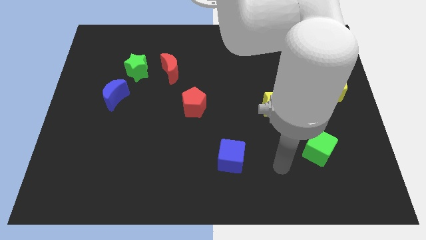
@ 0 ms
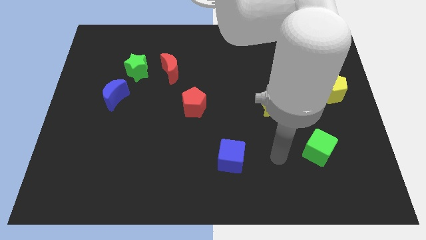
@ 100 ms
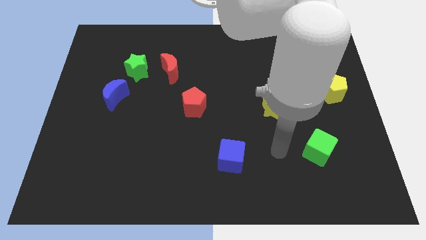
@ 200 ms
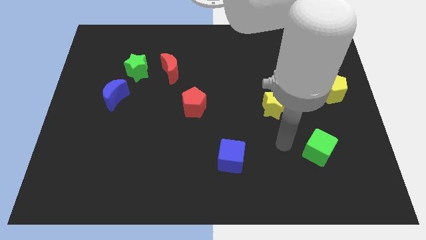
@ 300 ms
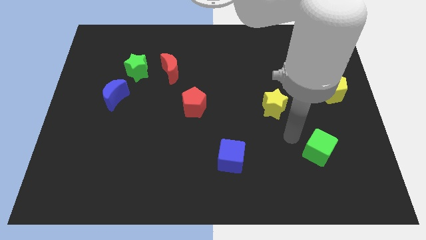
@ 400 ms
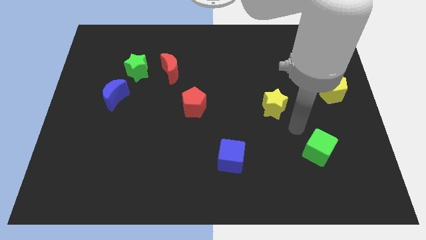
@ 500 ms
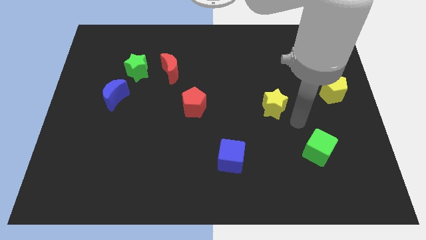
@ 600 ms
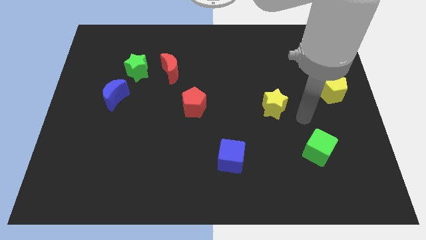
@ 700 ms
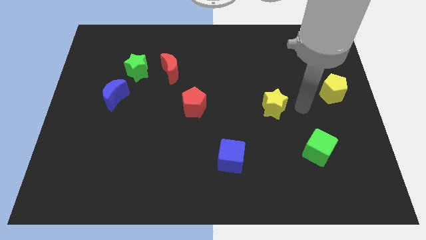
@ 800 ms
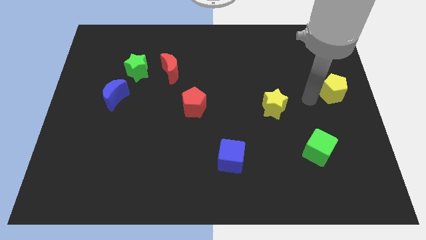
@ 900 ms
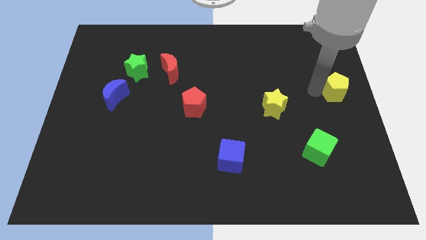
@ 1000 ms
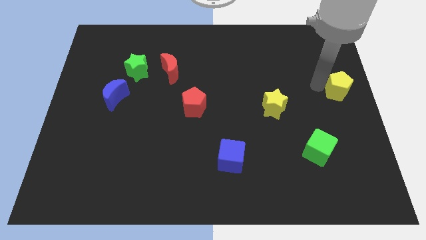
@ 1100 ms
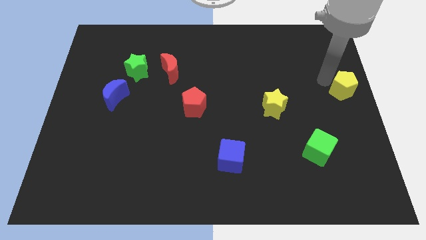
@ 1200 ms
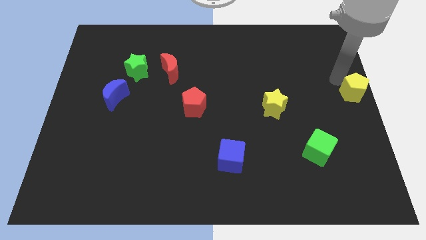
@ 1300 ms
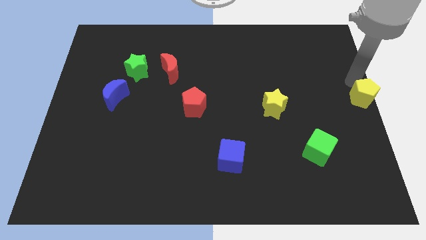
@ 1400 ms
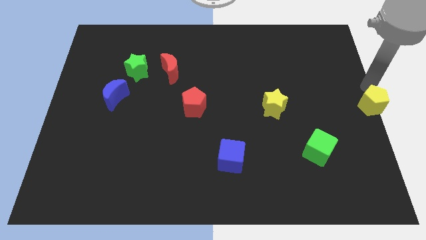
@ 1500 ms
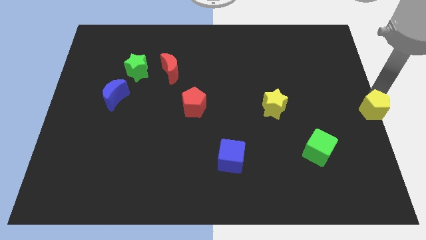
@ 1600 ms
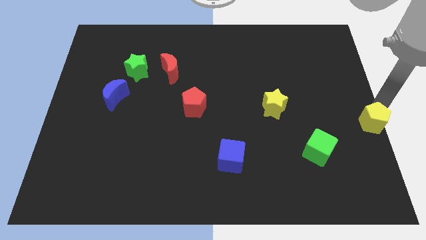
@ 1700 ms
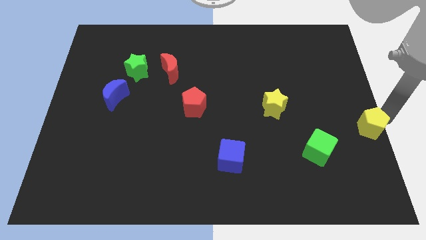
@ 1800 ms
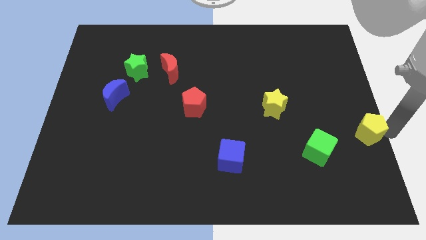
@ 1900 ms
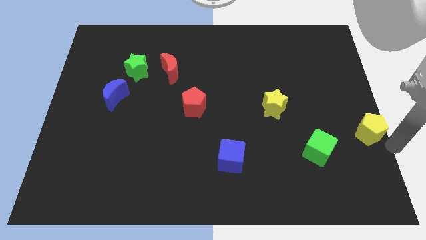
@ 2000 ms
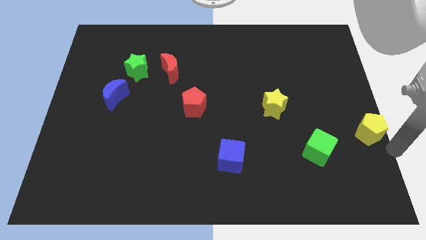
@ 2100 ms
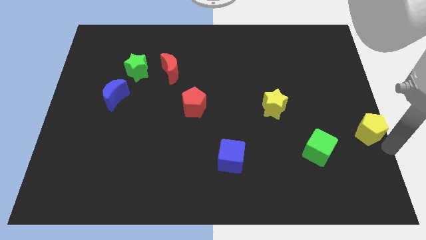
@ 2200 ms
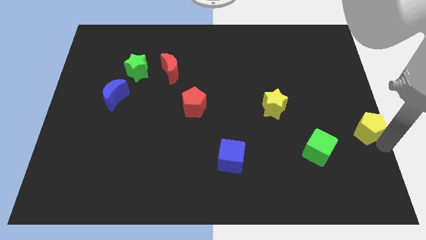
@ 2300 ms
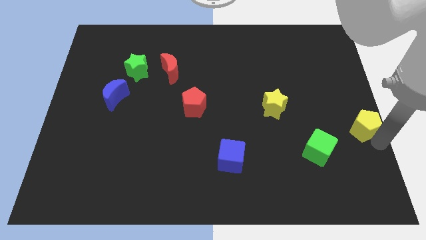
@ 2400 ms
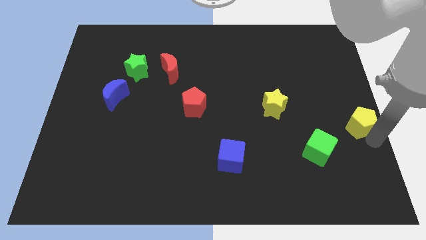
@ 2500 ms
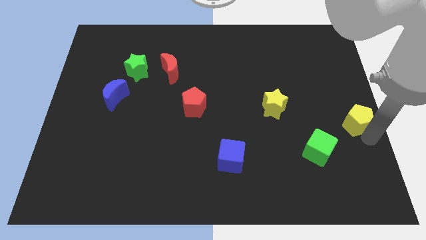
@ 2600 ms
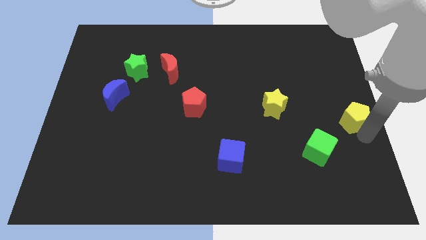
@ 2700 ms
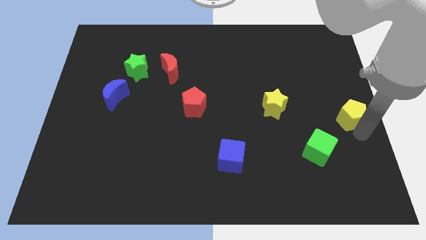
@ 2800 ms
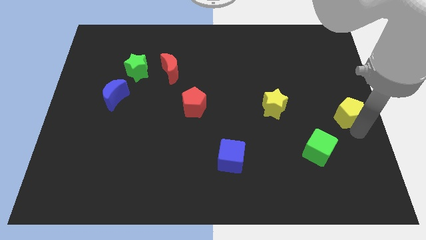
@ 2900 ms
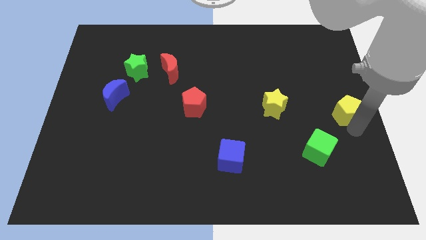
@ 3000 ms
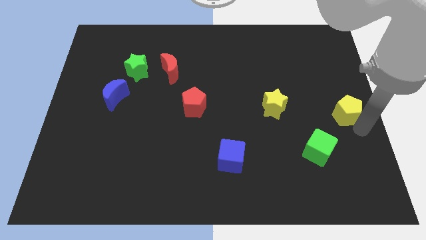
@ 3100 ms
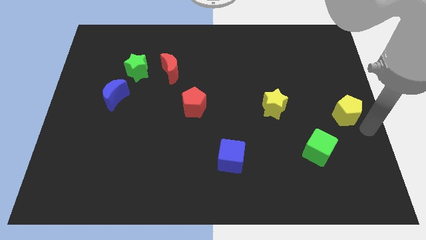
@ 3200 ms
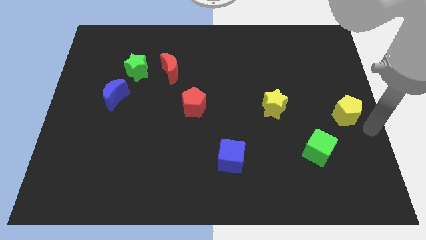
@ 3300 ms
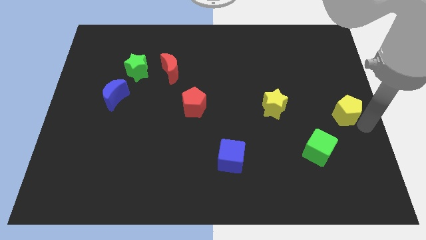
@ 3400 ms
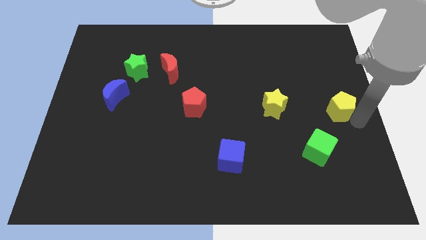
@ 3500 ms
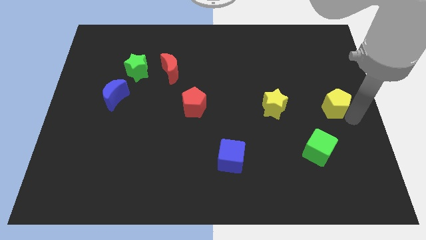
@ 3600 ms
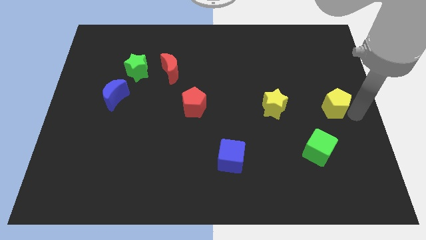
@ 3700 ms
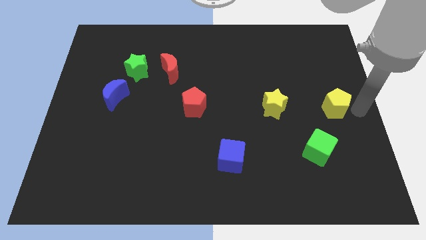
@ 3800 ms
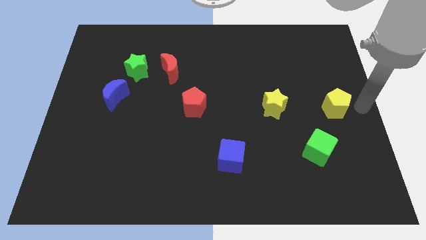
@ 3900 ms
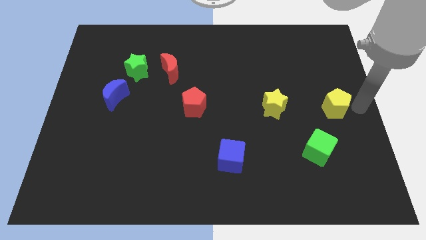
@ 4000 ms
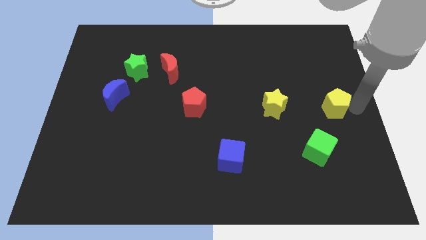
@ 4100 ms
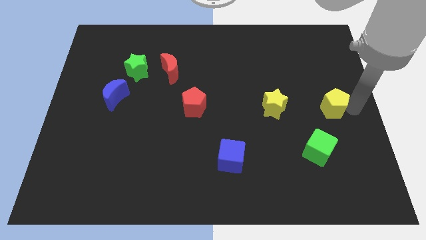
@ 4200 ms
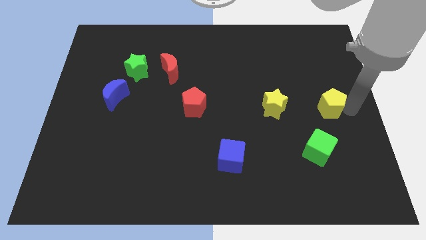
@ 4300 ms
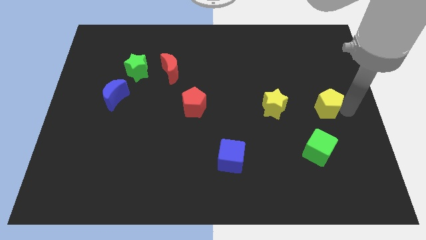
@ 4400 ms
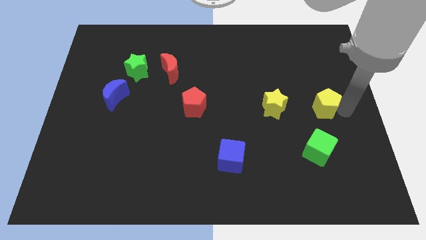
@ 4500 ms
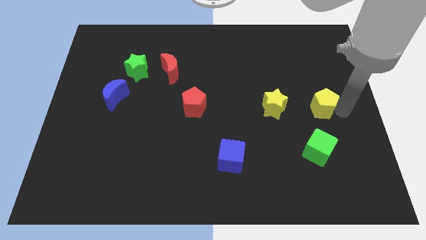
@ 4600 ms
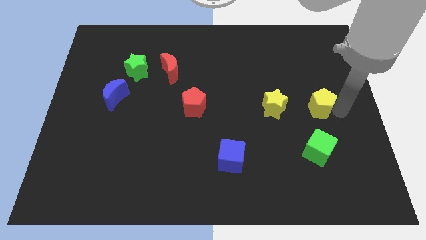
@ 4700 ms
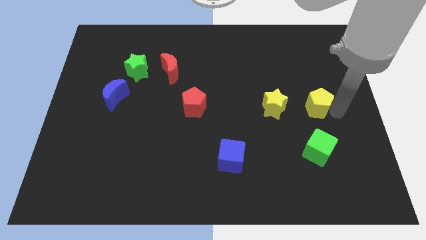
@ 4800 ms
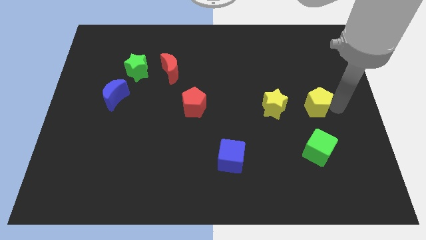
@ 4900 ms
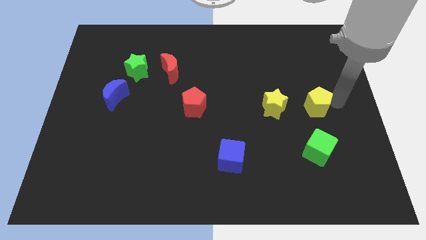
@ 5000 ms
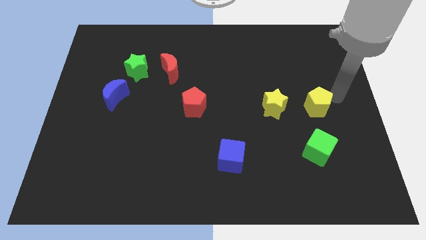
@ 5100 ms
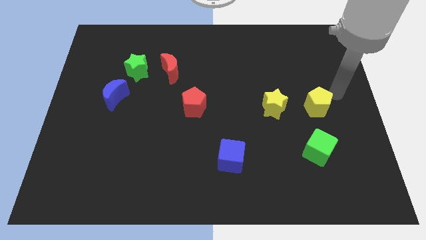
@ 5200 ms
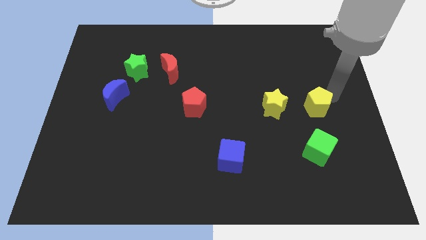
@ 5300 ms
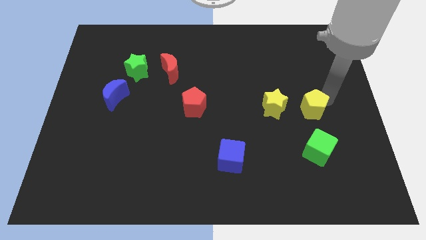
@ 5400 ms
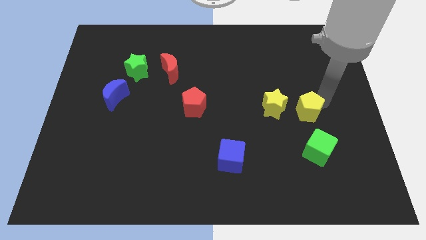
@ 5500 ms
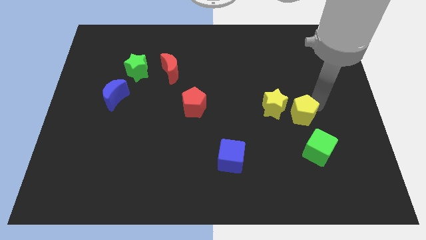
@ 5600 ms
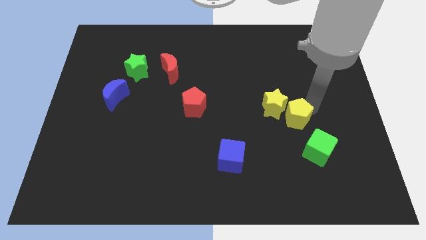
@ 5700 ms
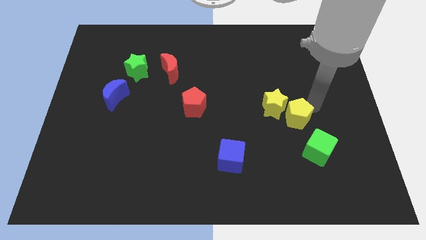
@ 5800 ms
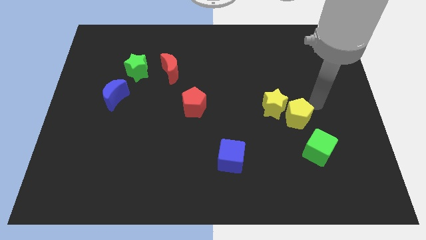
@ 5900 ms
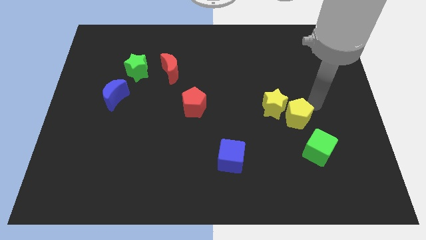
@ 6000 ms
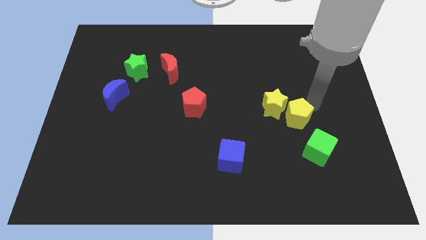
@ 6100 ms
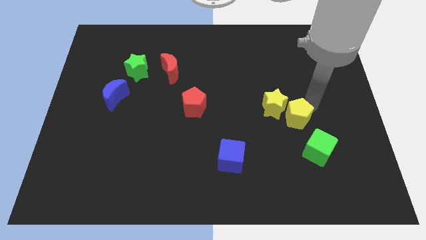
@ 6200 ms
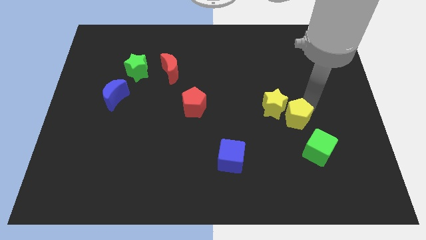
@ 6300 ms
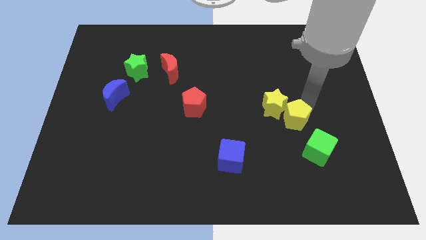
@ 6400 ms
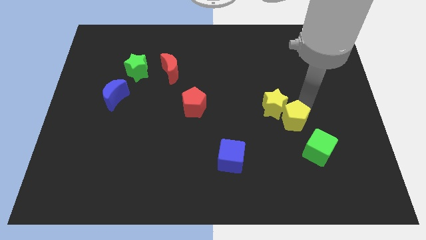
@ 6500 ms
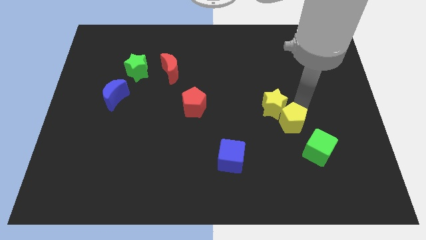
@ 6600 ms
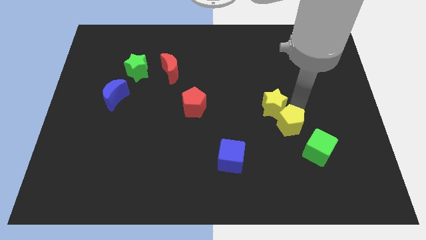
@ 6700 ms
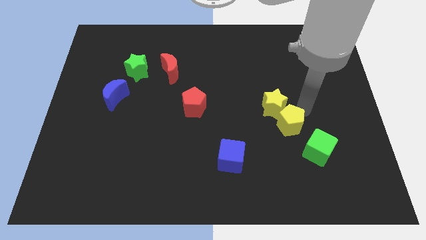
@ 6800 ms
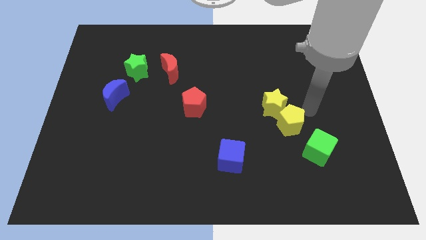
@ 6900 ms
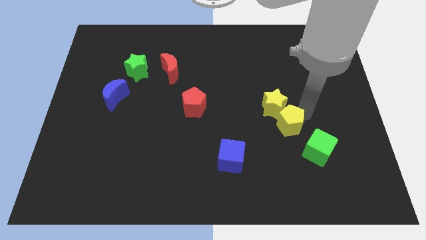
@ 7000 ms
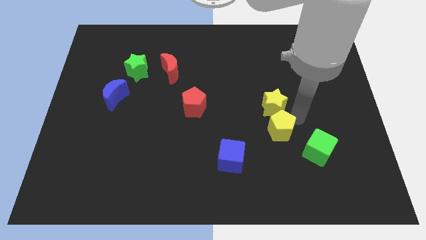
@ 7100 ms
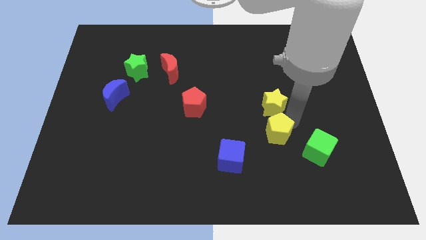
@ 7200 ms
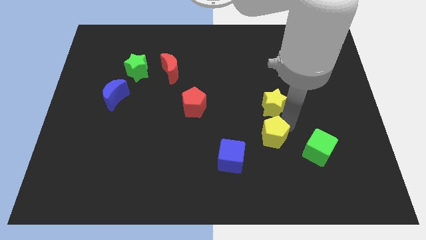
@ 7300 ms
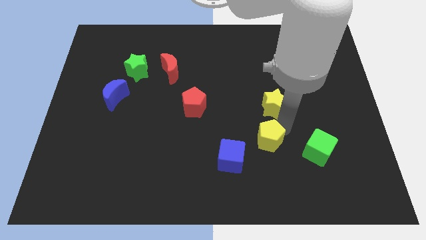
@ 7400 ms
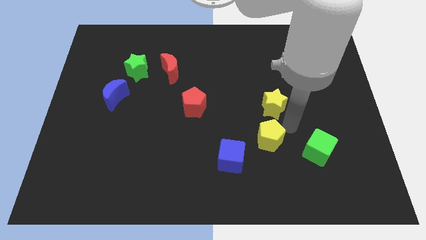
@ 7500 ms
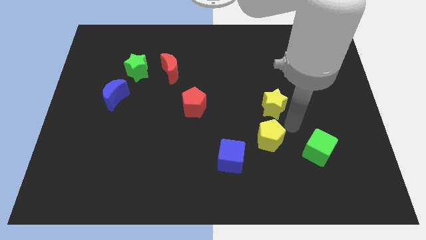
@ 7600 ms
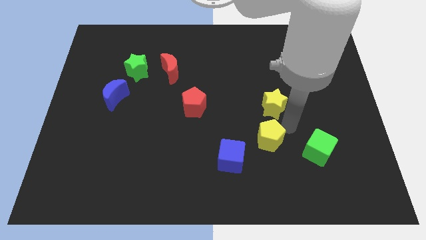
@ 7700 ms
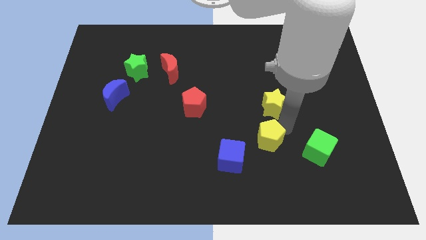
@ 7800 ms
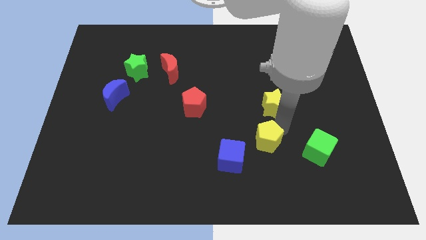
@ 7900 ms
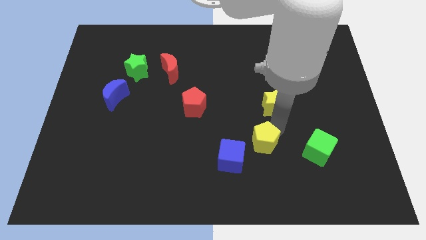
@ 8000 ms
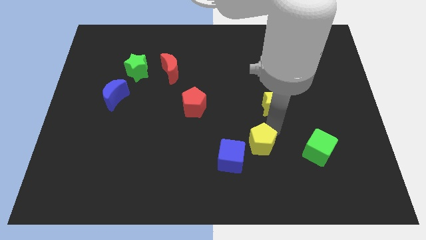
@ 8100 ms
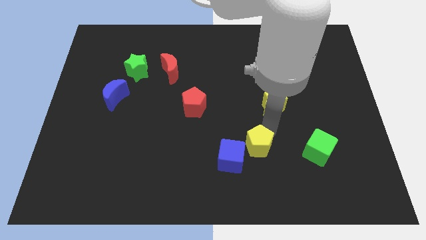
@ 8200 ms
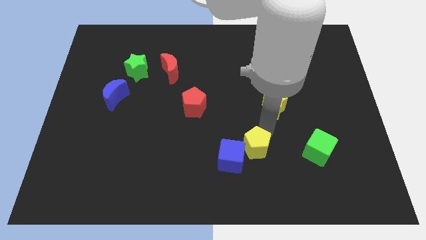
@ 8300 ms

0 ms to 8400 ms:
slide the yellow pentagon towards the blue cube
